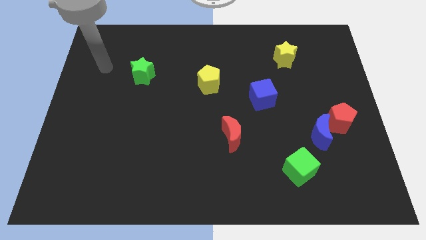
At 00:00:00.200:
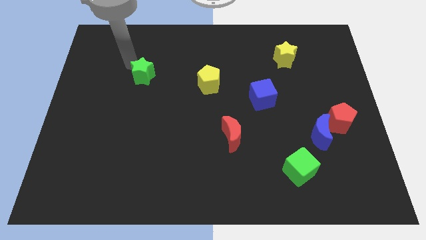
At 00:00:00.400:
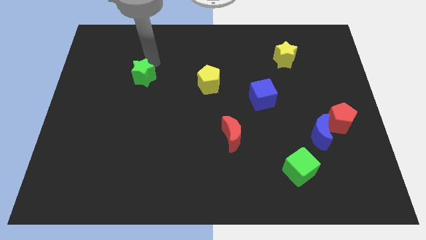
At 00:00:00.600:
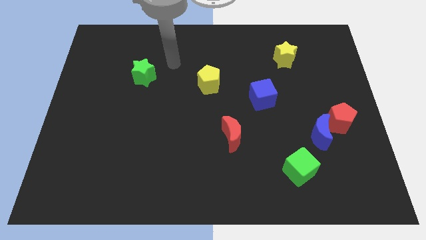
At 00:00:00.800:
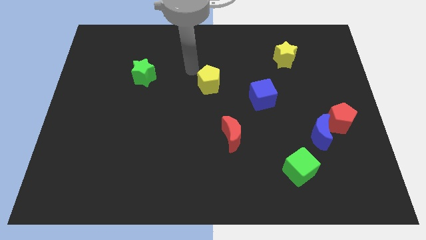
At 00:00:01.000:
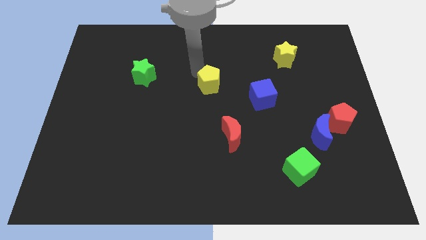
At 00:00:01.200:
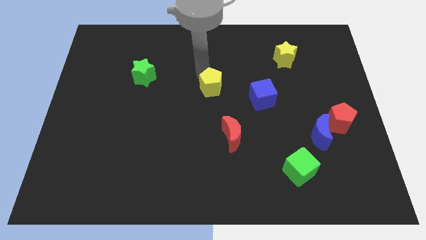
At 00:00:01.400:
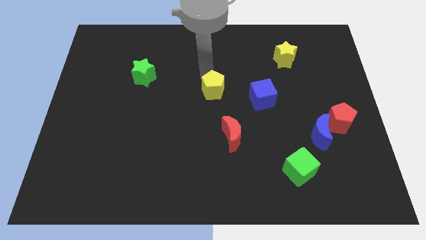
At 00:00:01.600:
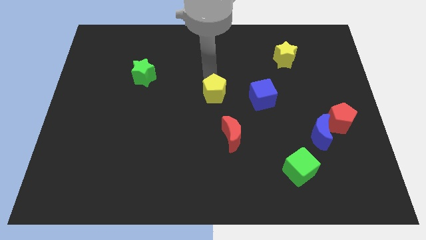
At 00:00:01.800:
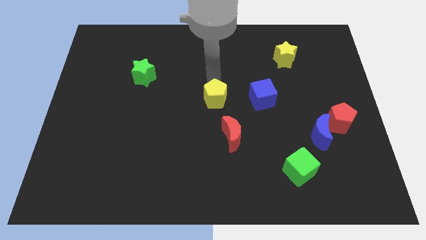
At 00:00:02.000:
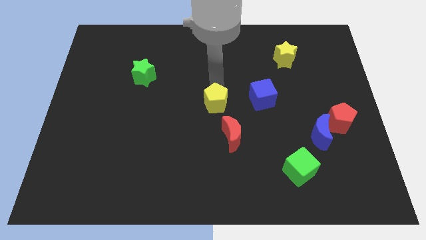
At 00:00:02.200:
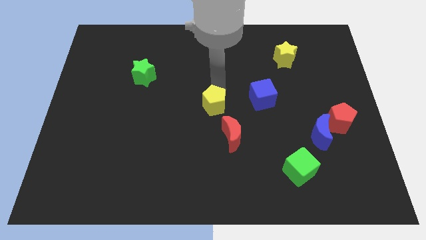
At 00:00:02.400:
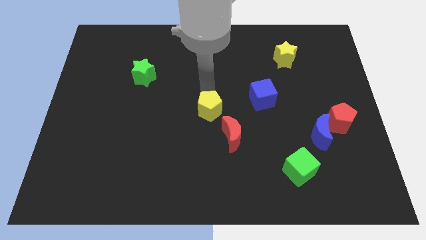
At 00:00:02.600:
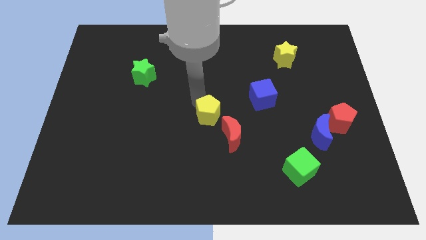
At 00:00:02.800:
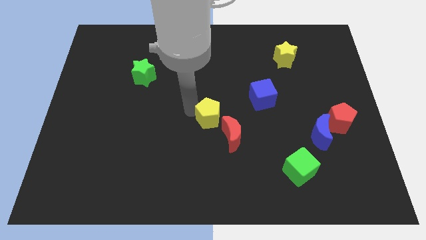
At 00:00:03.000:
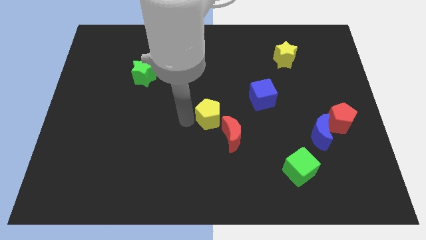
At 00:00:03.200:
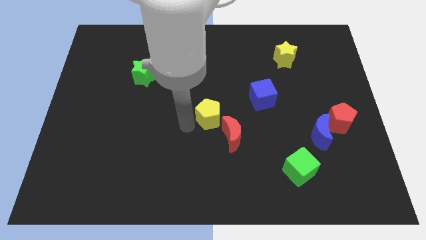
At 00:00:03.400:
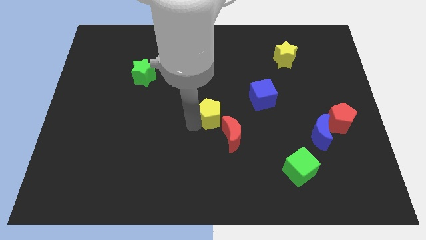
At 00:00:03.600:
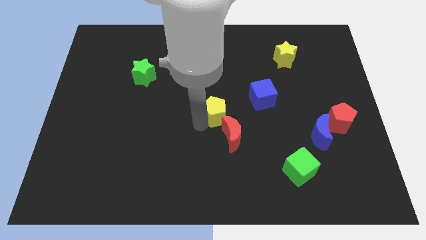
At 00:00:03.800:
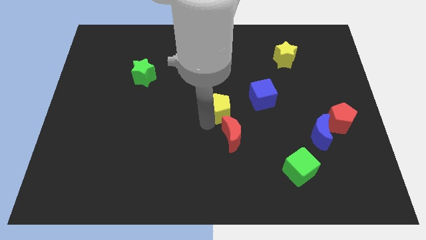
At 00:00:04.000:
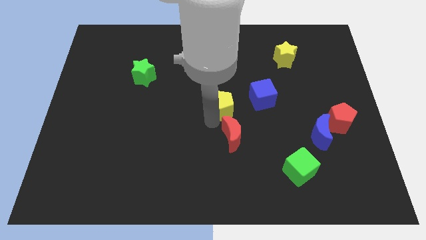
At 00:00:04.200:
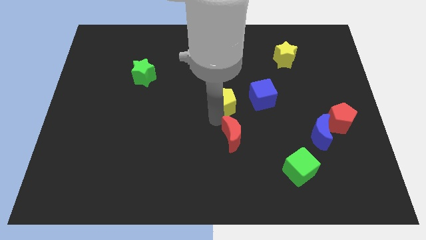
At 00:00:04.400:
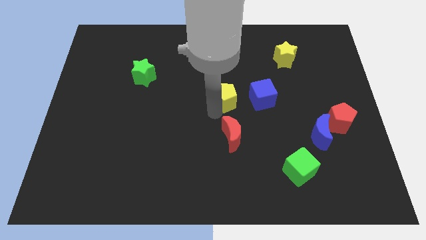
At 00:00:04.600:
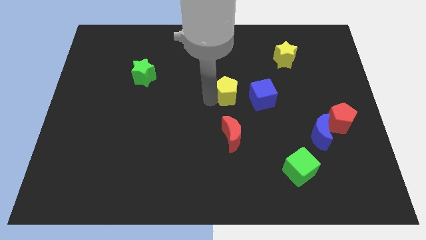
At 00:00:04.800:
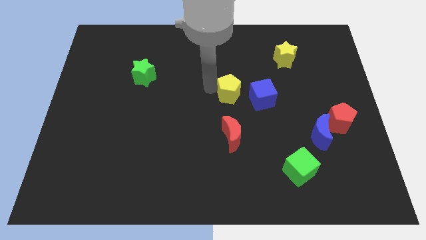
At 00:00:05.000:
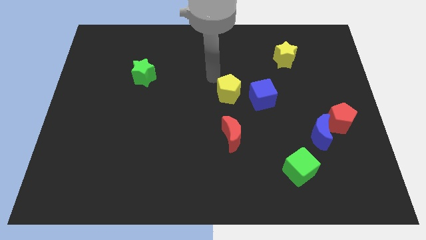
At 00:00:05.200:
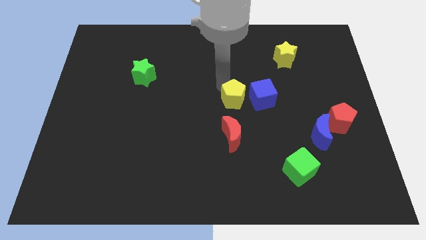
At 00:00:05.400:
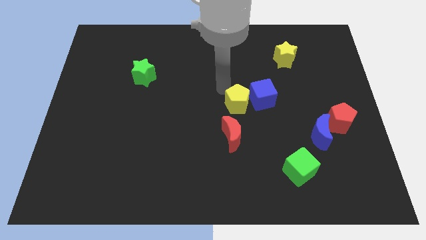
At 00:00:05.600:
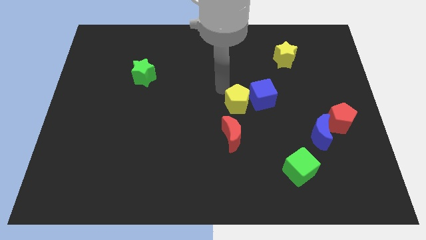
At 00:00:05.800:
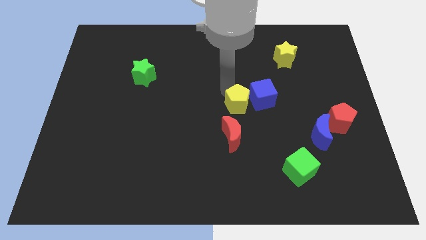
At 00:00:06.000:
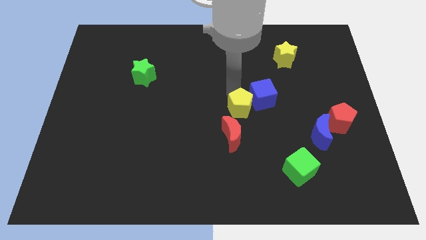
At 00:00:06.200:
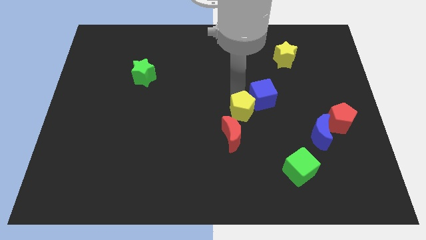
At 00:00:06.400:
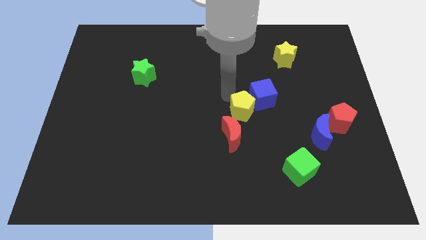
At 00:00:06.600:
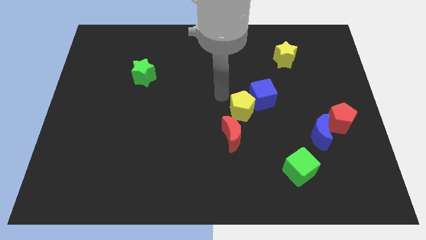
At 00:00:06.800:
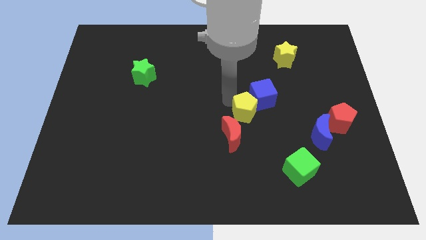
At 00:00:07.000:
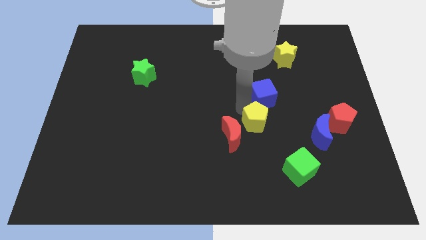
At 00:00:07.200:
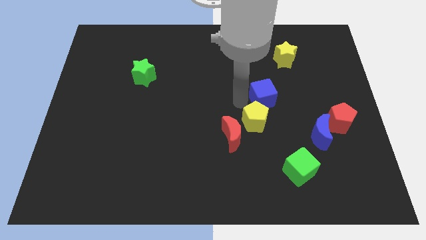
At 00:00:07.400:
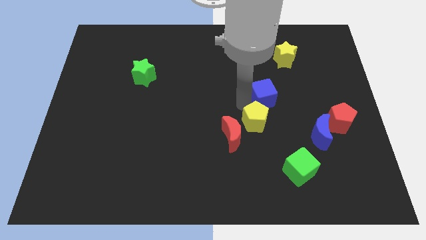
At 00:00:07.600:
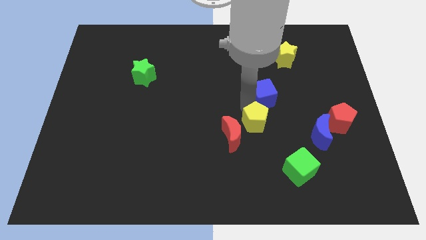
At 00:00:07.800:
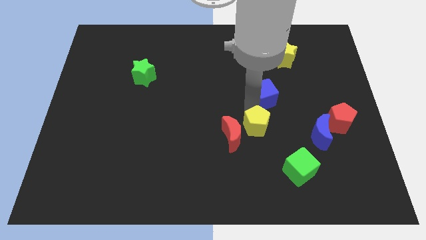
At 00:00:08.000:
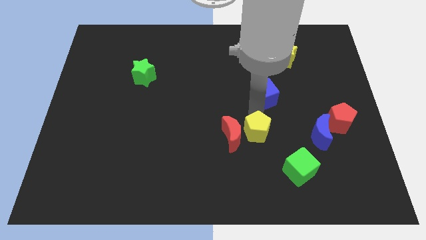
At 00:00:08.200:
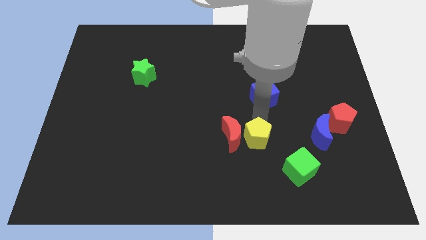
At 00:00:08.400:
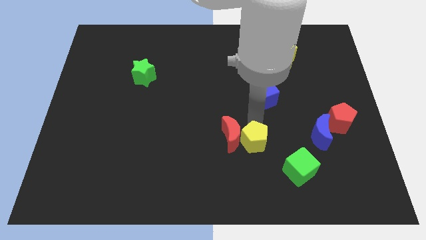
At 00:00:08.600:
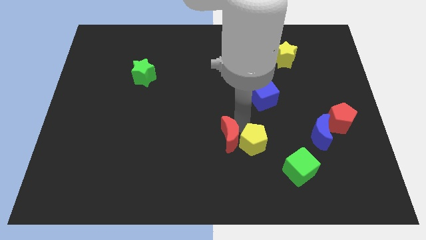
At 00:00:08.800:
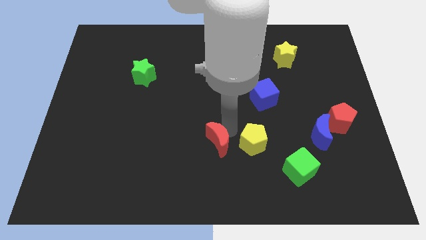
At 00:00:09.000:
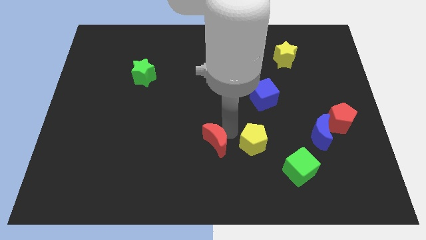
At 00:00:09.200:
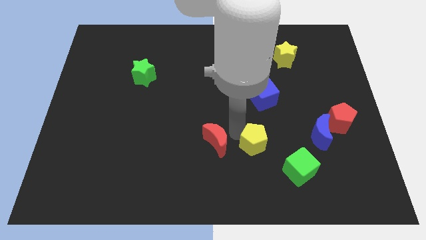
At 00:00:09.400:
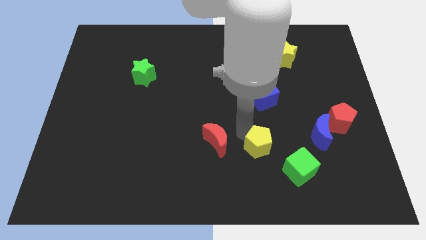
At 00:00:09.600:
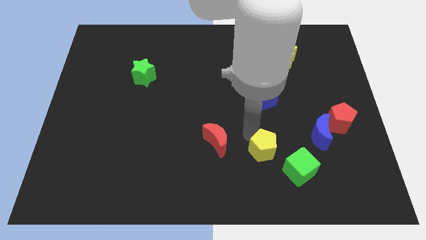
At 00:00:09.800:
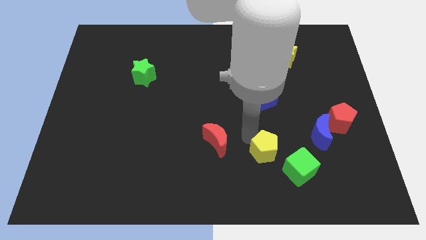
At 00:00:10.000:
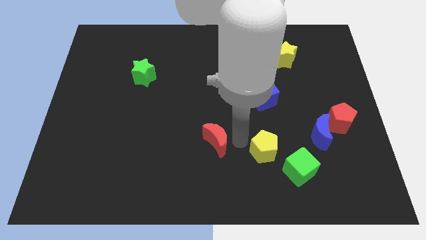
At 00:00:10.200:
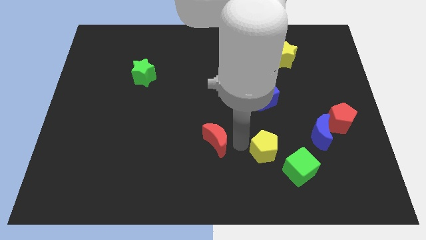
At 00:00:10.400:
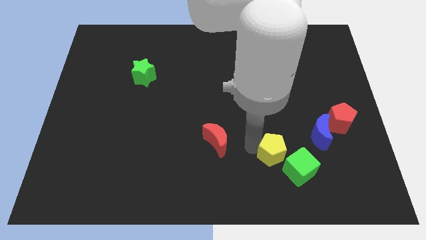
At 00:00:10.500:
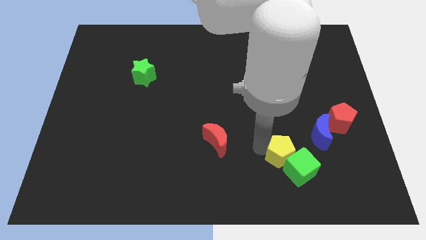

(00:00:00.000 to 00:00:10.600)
slide the yellow pentagon close to the green cube

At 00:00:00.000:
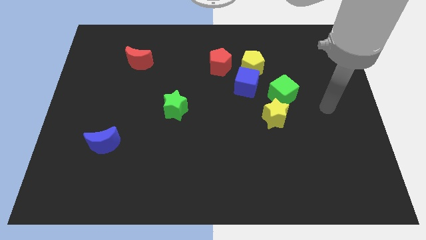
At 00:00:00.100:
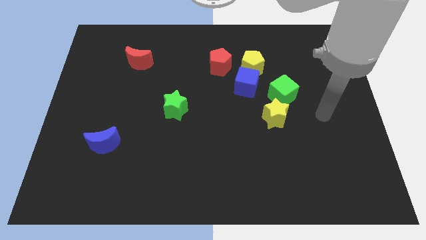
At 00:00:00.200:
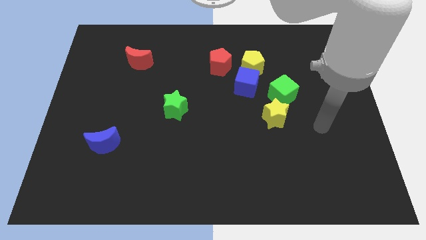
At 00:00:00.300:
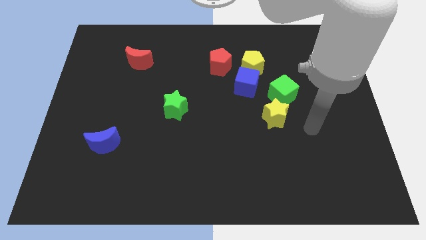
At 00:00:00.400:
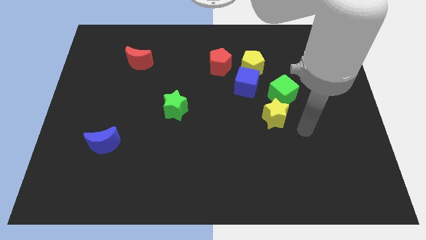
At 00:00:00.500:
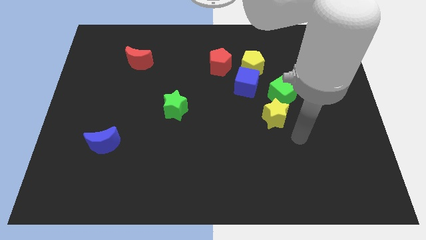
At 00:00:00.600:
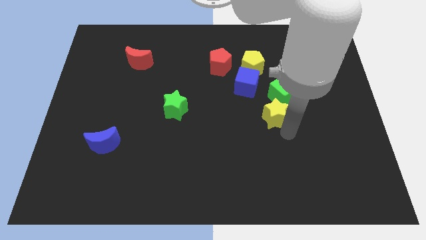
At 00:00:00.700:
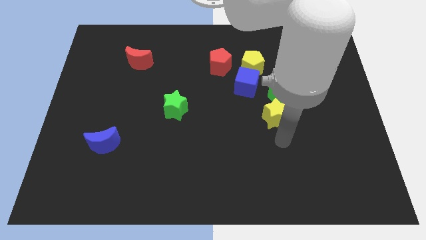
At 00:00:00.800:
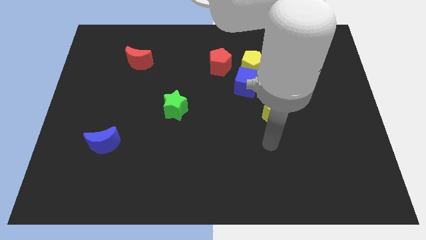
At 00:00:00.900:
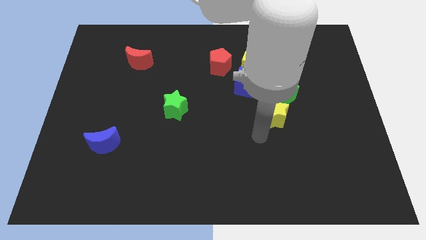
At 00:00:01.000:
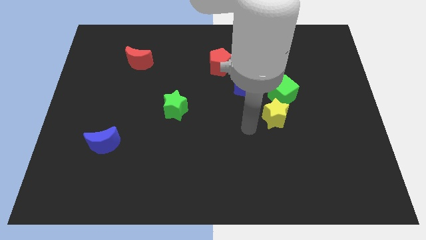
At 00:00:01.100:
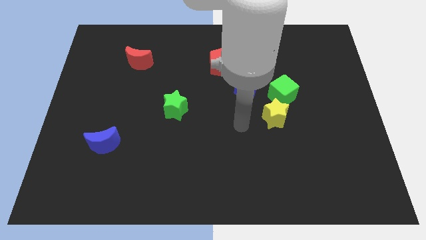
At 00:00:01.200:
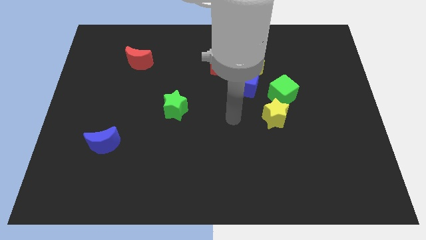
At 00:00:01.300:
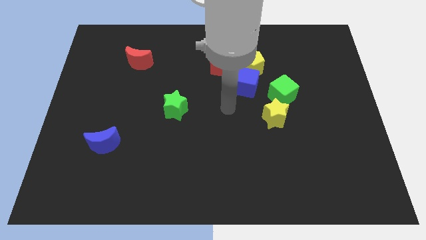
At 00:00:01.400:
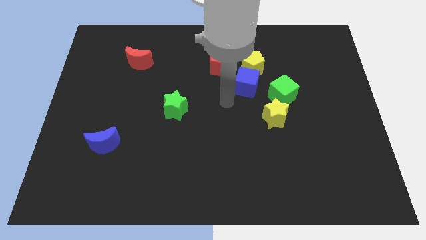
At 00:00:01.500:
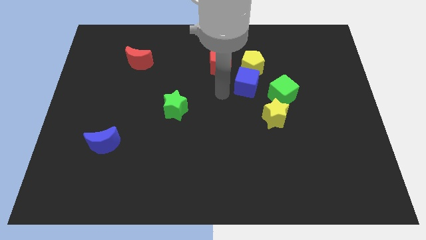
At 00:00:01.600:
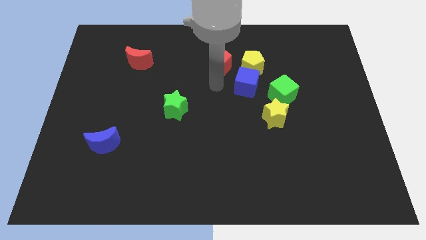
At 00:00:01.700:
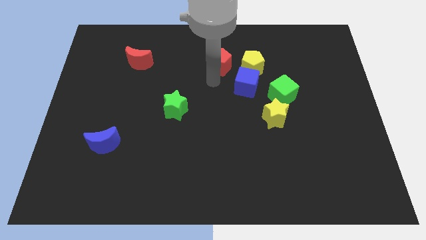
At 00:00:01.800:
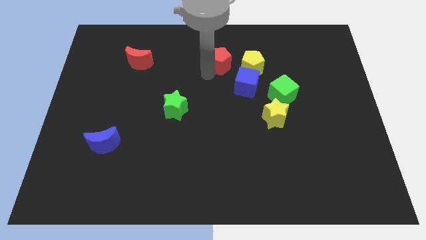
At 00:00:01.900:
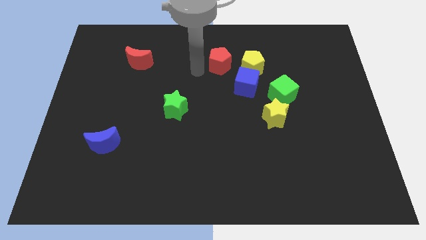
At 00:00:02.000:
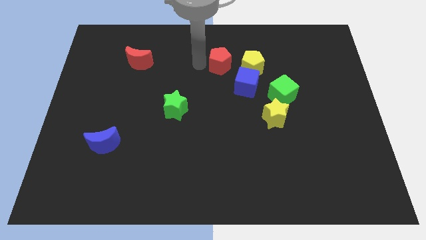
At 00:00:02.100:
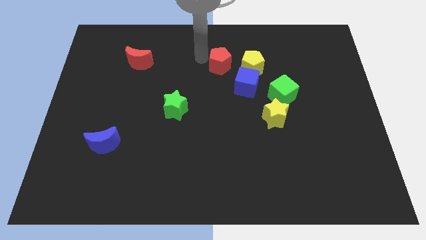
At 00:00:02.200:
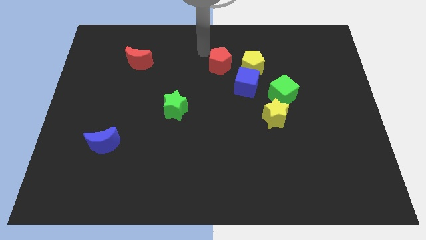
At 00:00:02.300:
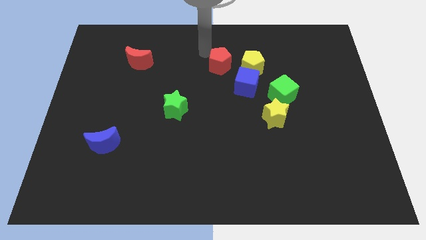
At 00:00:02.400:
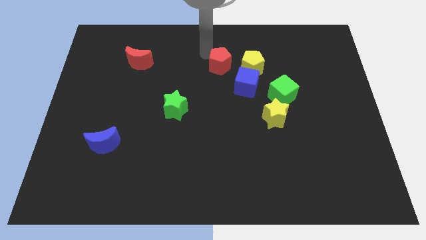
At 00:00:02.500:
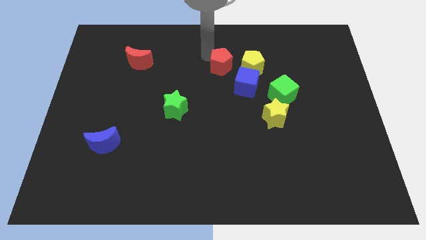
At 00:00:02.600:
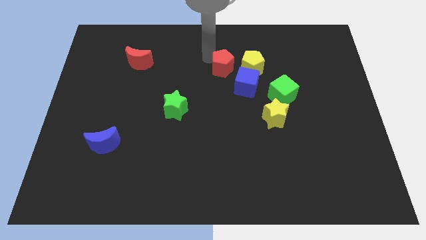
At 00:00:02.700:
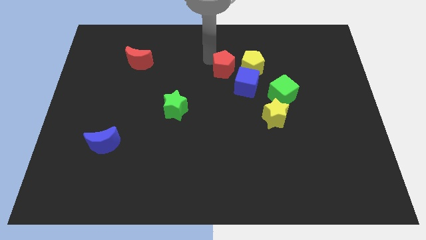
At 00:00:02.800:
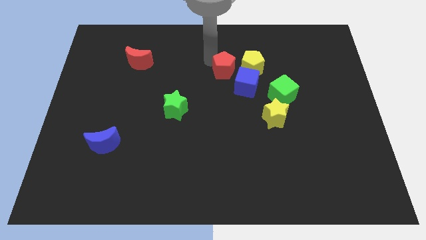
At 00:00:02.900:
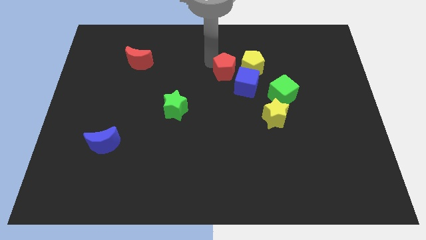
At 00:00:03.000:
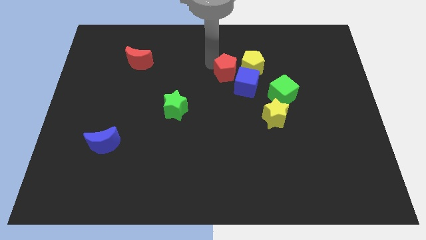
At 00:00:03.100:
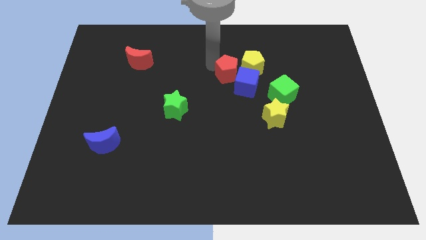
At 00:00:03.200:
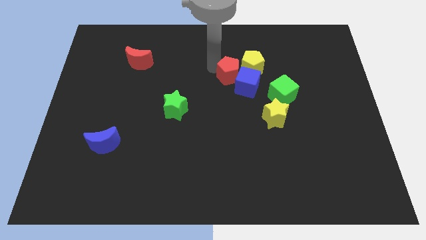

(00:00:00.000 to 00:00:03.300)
push the red pentagon to the blue cube
